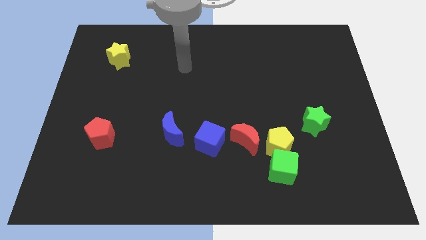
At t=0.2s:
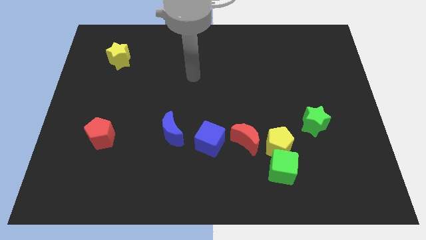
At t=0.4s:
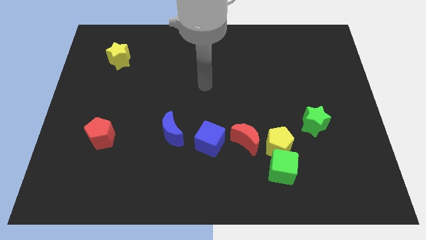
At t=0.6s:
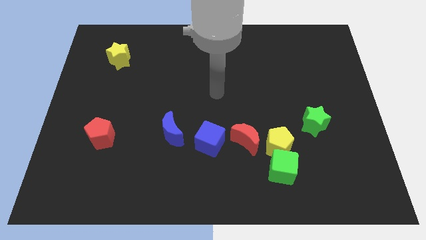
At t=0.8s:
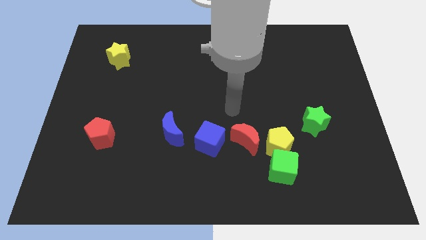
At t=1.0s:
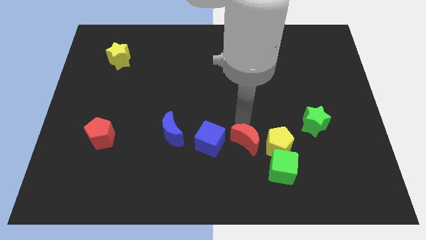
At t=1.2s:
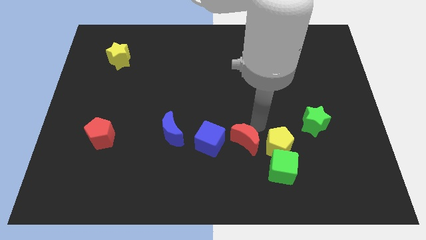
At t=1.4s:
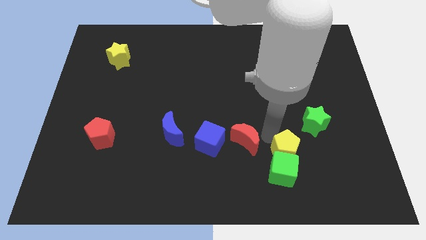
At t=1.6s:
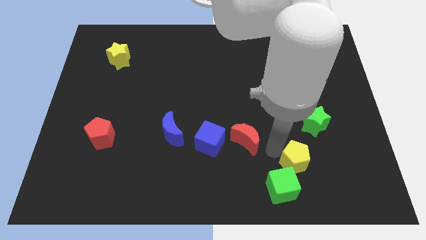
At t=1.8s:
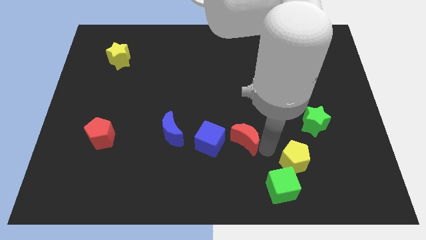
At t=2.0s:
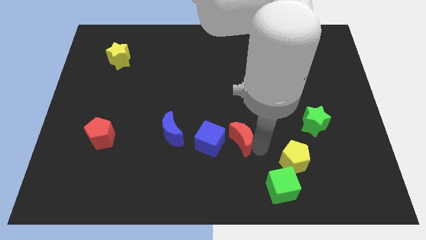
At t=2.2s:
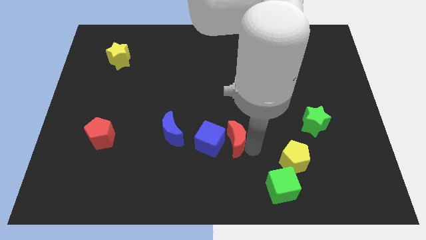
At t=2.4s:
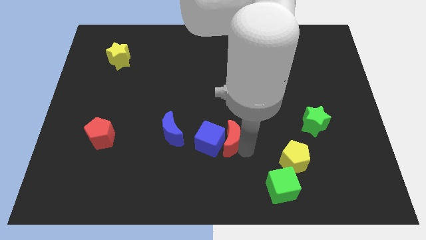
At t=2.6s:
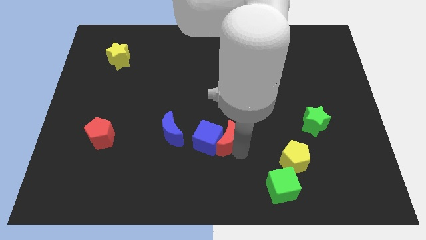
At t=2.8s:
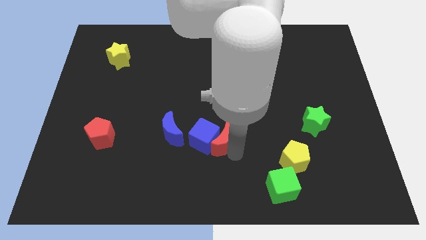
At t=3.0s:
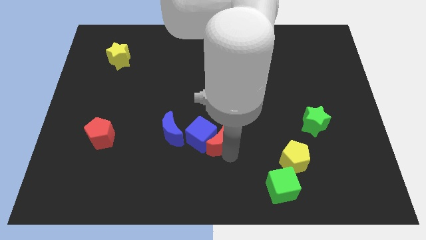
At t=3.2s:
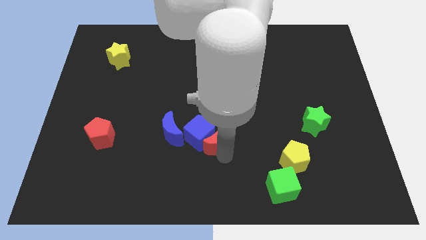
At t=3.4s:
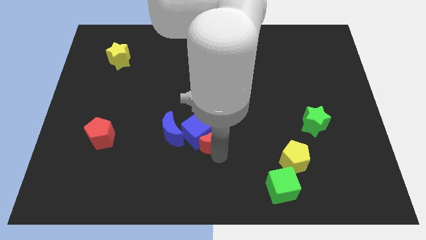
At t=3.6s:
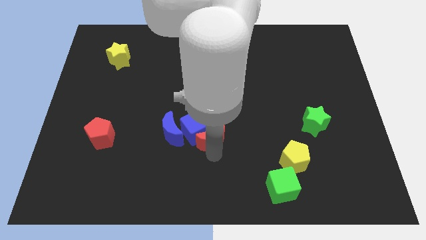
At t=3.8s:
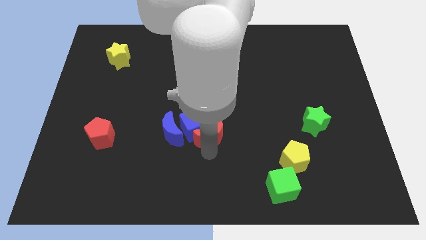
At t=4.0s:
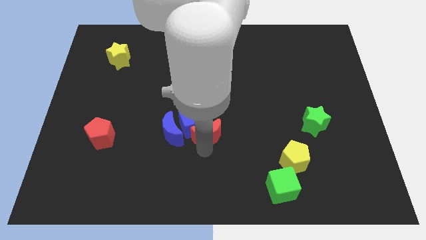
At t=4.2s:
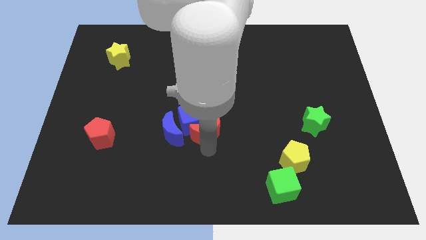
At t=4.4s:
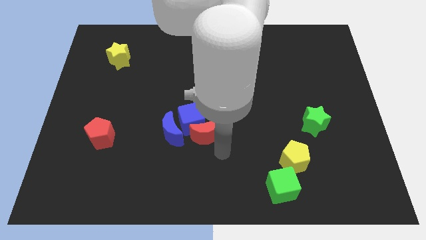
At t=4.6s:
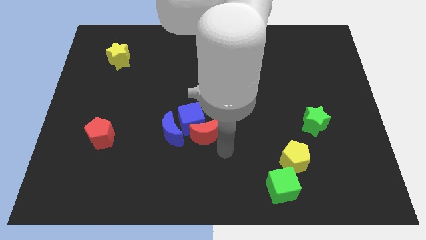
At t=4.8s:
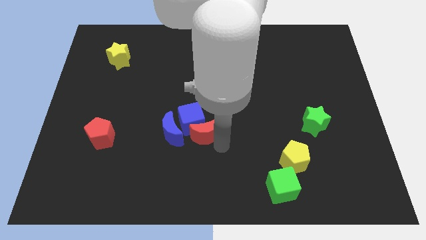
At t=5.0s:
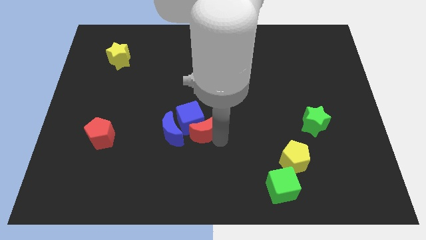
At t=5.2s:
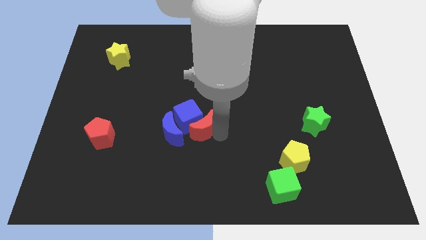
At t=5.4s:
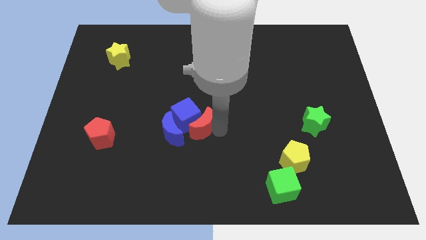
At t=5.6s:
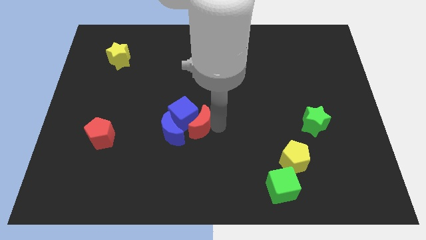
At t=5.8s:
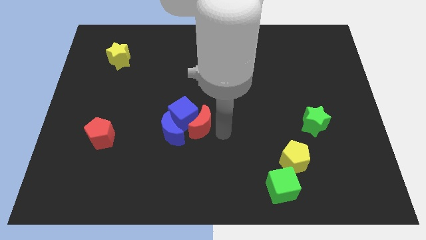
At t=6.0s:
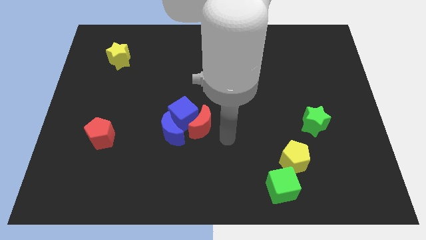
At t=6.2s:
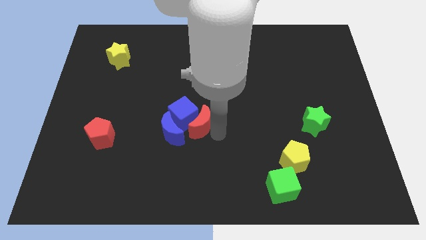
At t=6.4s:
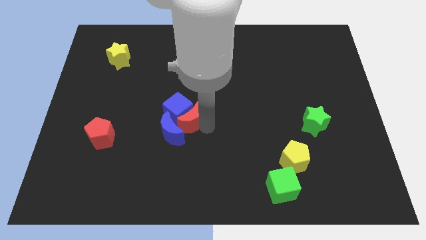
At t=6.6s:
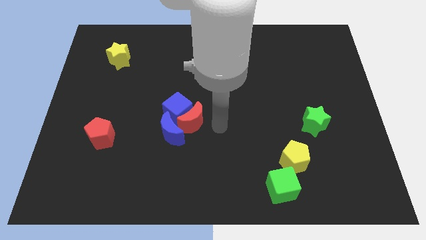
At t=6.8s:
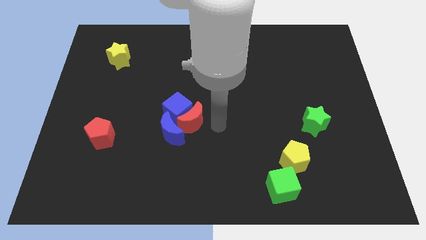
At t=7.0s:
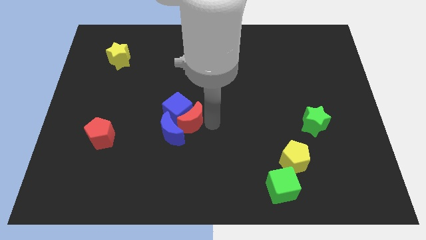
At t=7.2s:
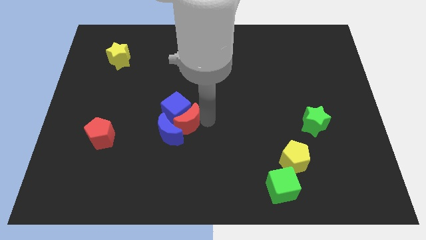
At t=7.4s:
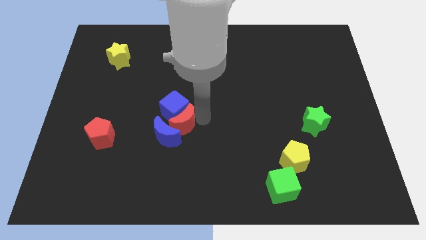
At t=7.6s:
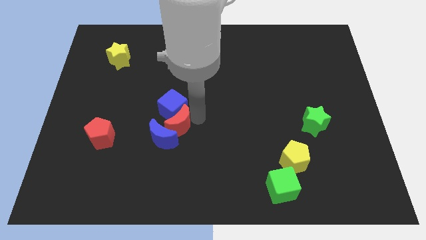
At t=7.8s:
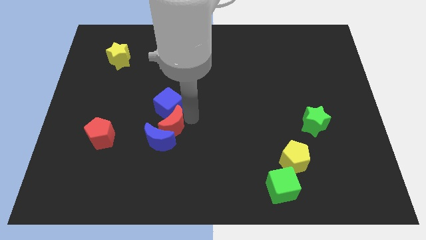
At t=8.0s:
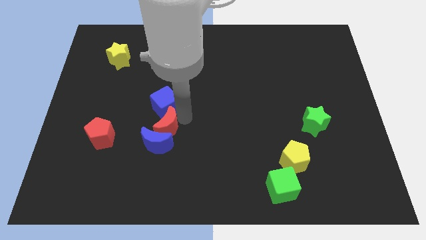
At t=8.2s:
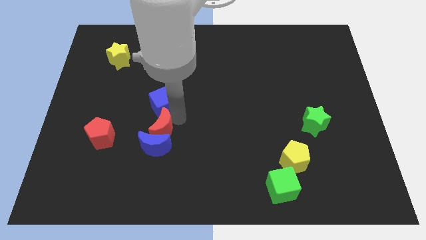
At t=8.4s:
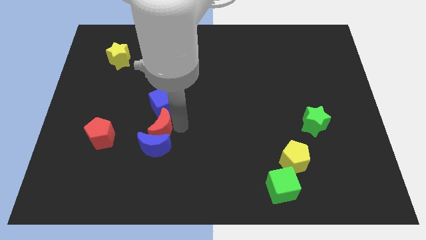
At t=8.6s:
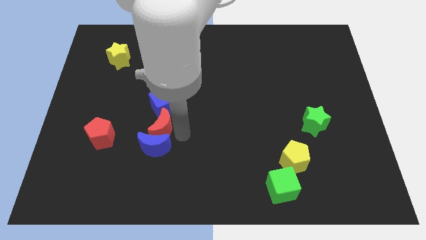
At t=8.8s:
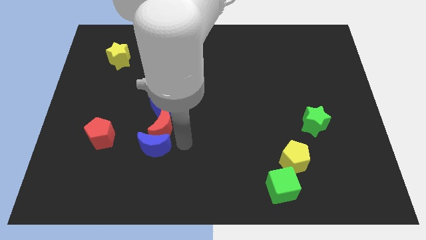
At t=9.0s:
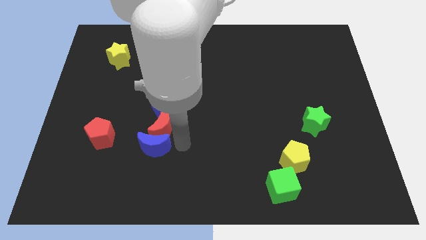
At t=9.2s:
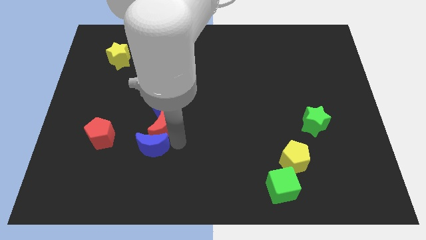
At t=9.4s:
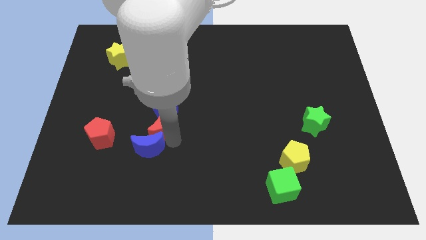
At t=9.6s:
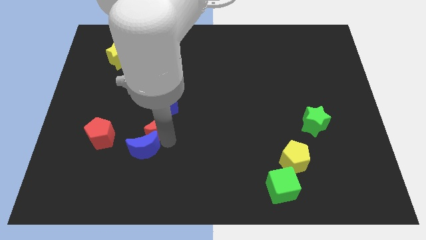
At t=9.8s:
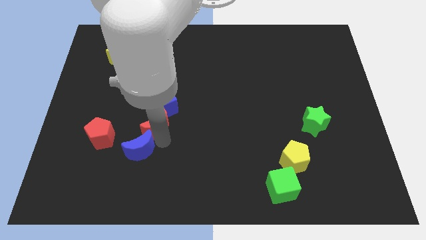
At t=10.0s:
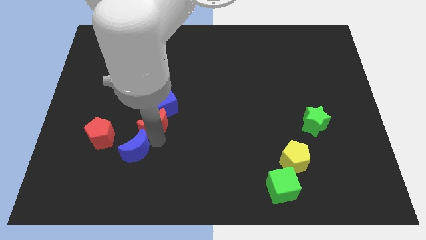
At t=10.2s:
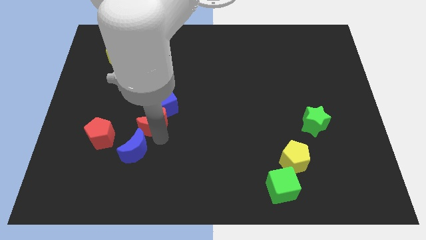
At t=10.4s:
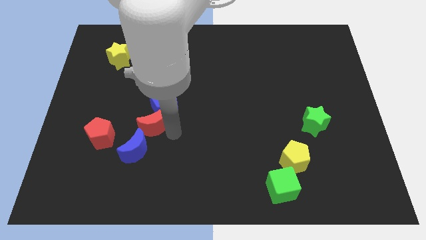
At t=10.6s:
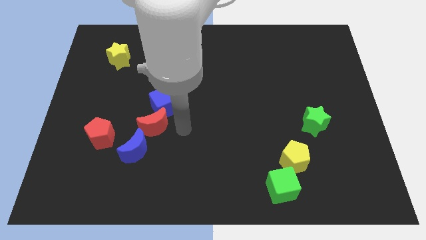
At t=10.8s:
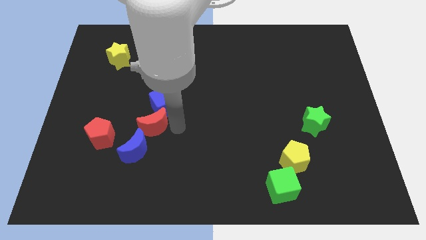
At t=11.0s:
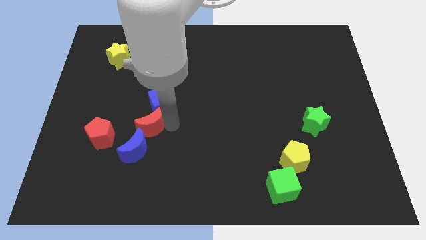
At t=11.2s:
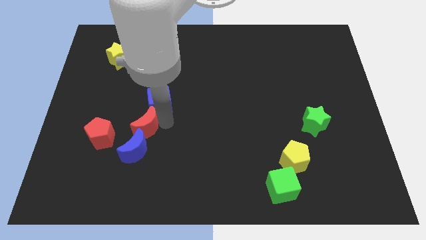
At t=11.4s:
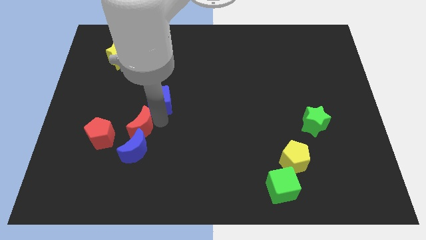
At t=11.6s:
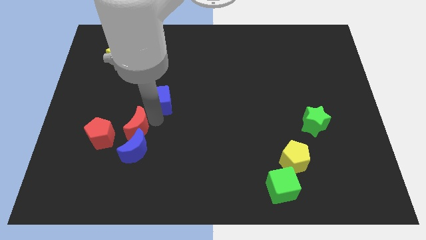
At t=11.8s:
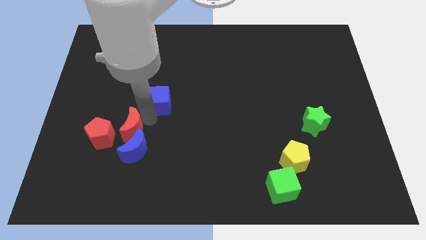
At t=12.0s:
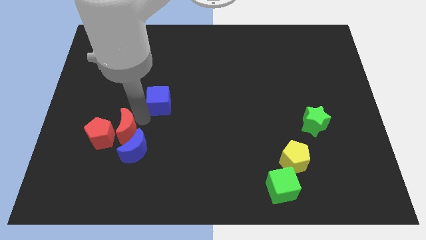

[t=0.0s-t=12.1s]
put the red moon towards the red pentagon

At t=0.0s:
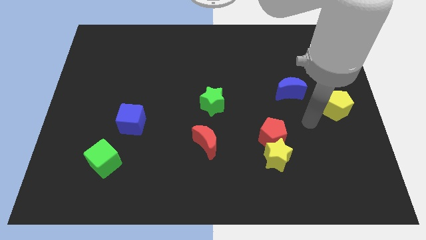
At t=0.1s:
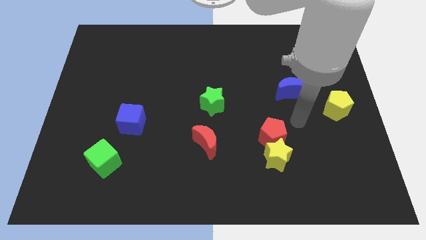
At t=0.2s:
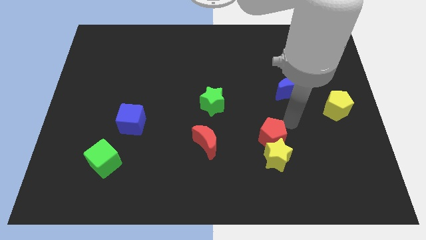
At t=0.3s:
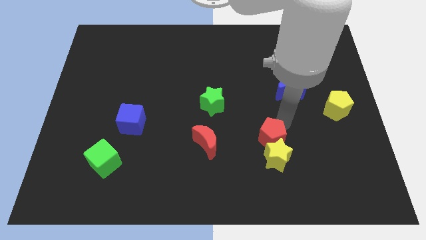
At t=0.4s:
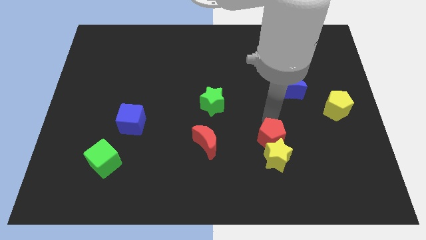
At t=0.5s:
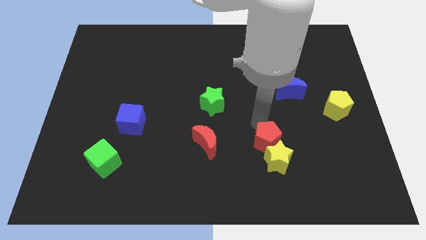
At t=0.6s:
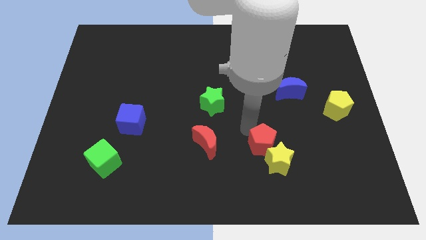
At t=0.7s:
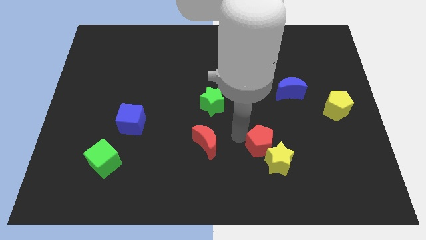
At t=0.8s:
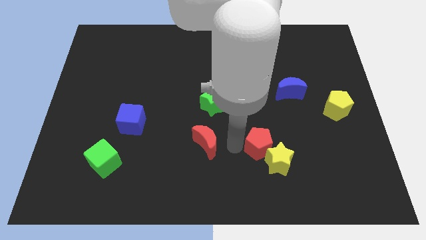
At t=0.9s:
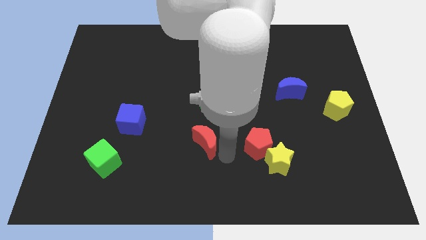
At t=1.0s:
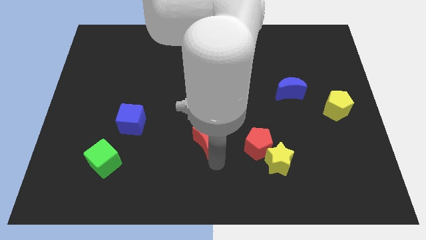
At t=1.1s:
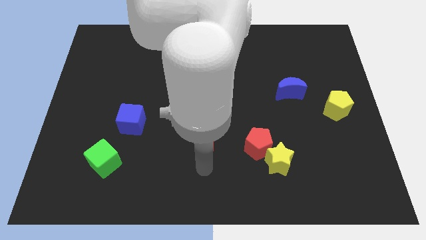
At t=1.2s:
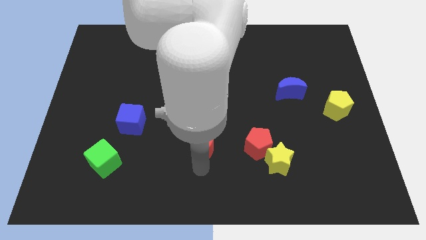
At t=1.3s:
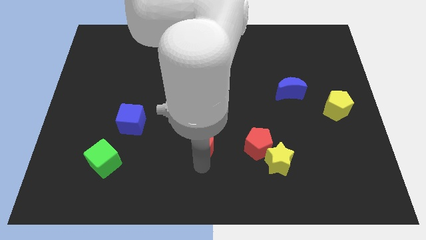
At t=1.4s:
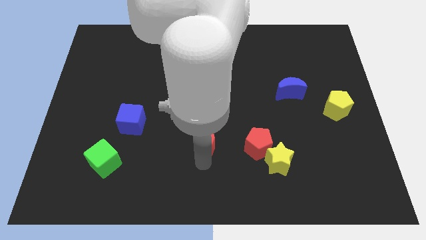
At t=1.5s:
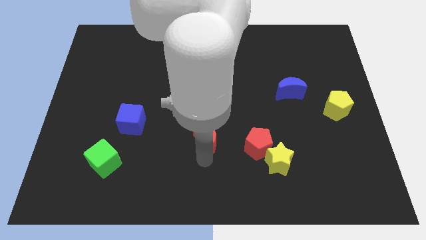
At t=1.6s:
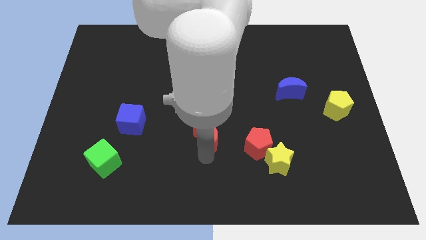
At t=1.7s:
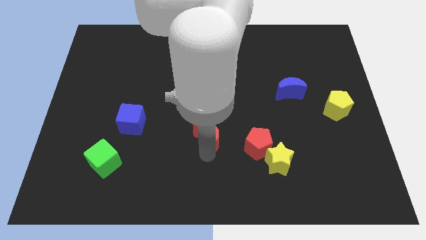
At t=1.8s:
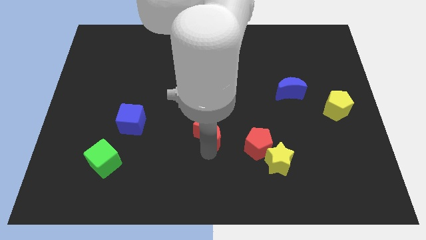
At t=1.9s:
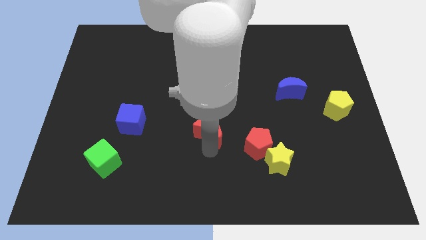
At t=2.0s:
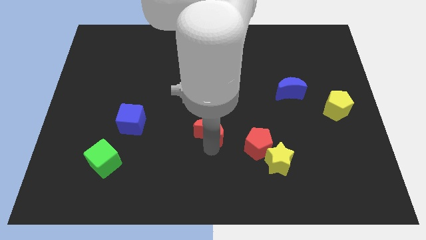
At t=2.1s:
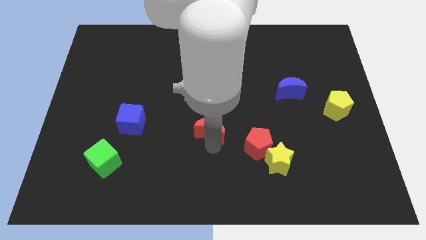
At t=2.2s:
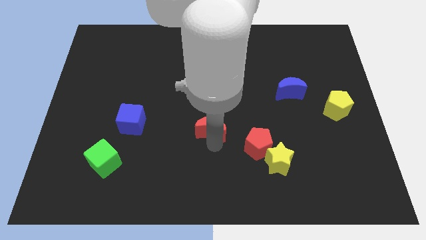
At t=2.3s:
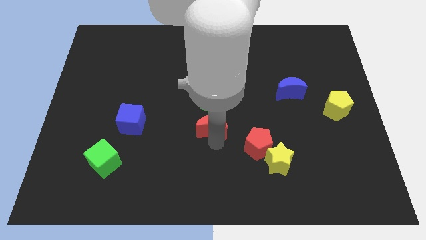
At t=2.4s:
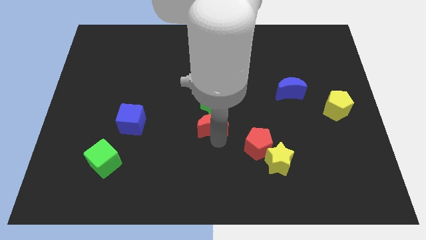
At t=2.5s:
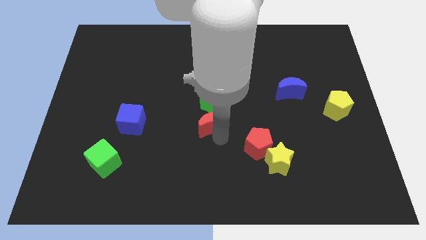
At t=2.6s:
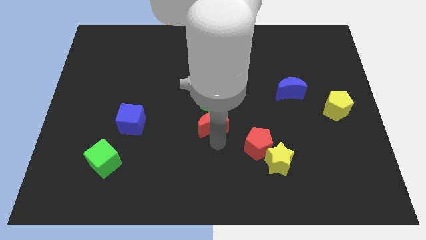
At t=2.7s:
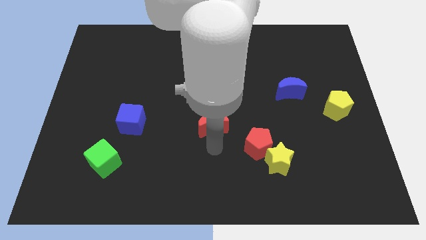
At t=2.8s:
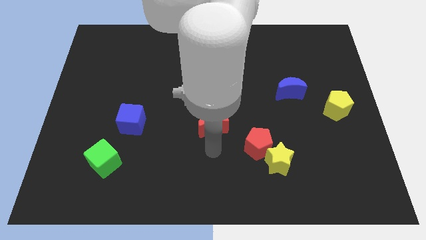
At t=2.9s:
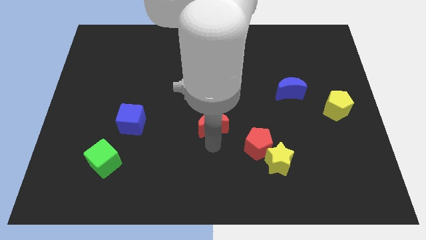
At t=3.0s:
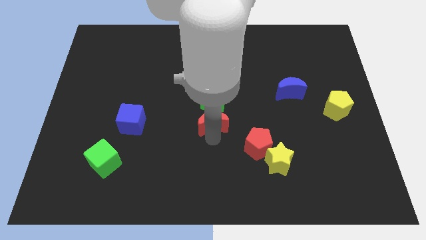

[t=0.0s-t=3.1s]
push the red moon next to the green star
